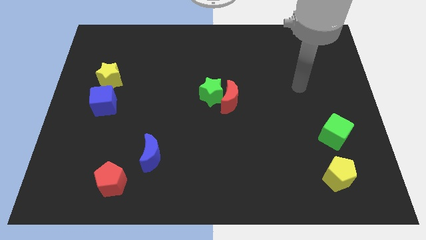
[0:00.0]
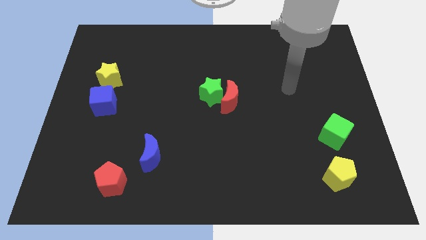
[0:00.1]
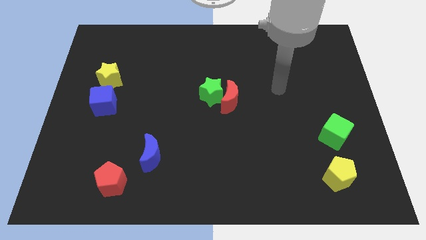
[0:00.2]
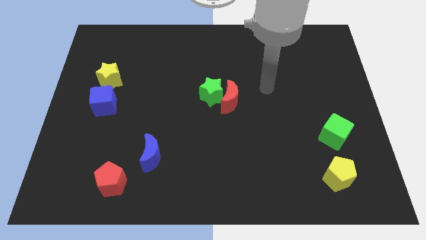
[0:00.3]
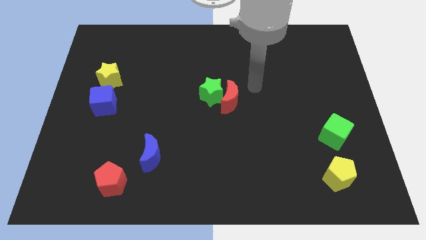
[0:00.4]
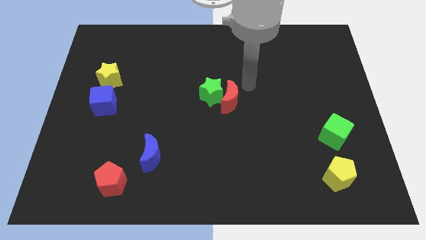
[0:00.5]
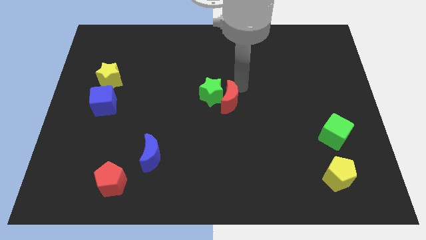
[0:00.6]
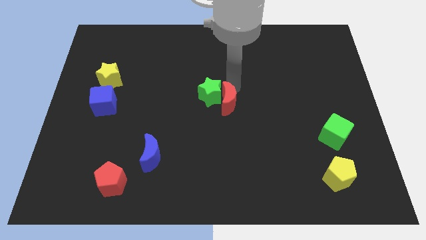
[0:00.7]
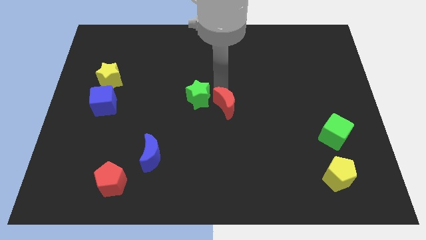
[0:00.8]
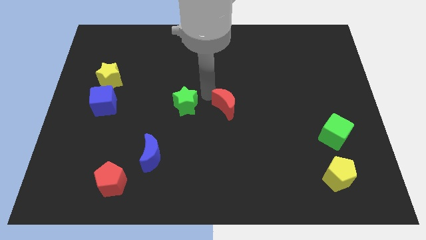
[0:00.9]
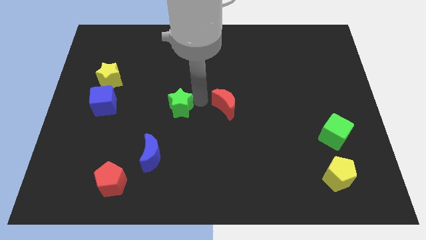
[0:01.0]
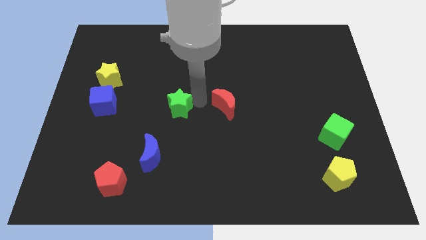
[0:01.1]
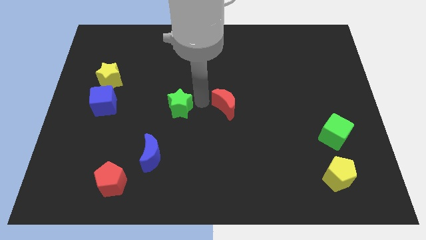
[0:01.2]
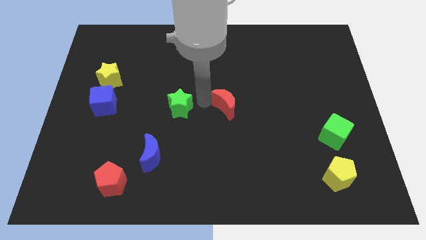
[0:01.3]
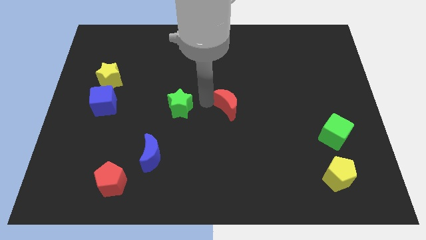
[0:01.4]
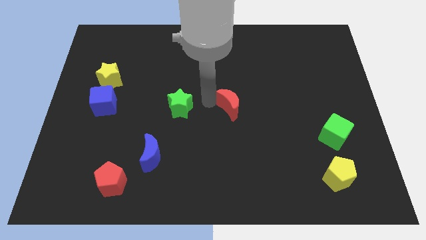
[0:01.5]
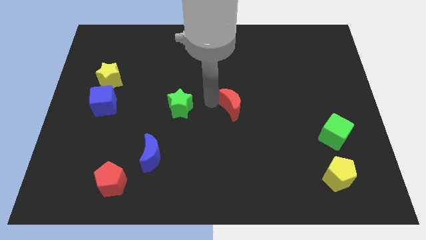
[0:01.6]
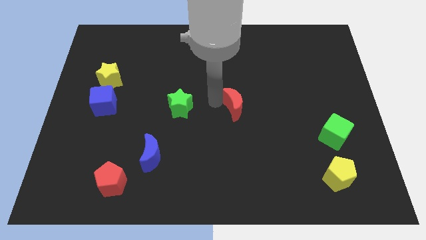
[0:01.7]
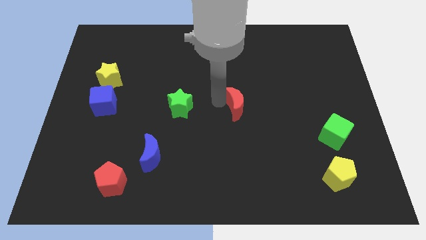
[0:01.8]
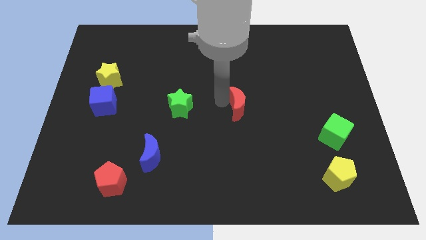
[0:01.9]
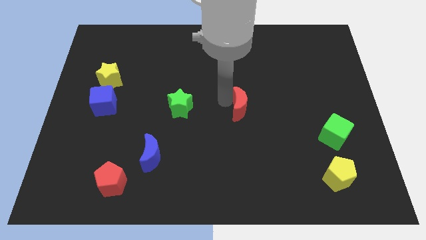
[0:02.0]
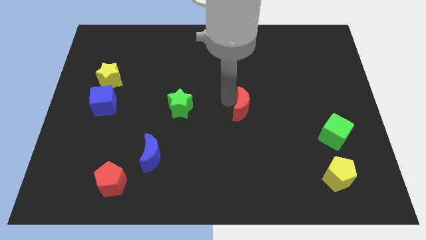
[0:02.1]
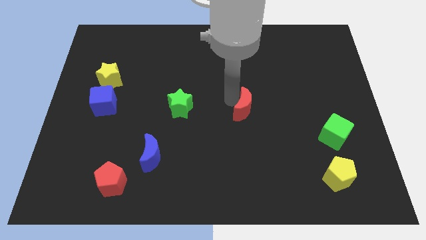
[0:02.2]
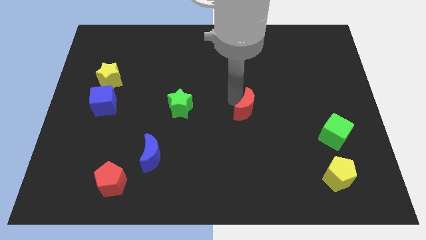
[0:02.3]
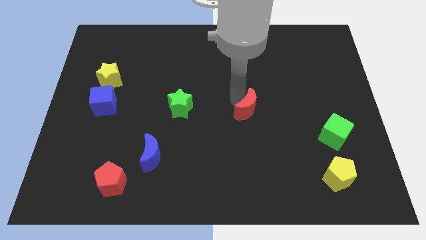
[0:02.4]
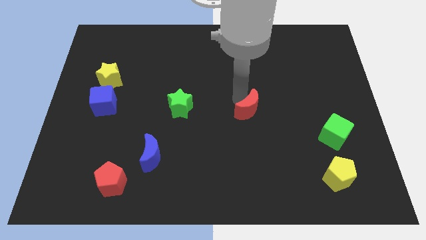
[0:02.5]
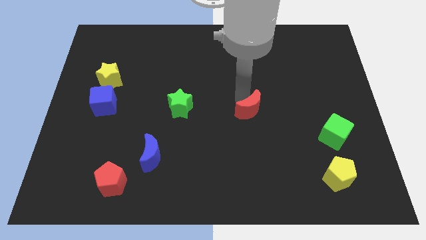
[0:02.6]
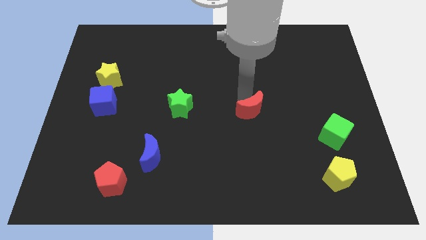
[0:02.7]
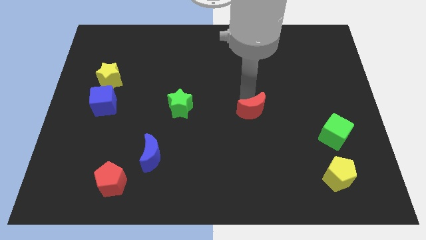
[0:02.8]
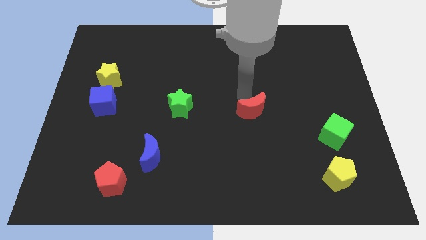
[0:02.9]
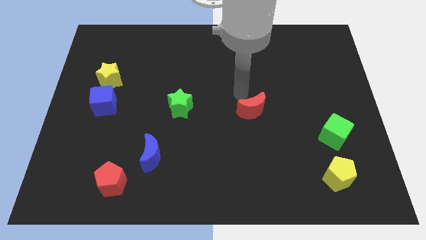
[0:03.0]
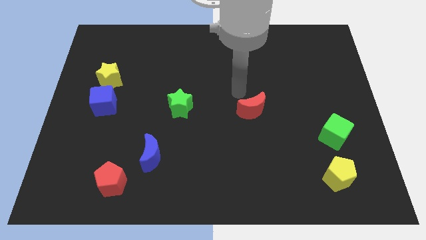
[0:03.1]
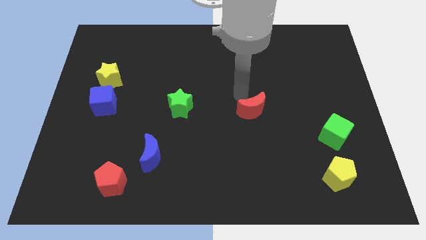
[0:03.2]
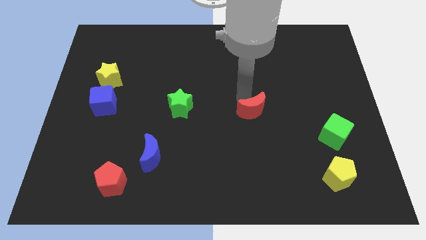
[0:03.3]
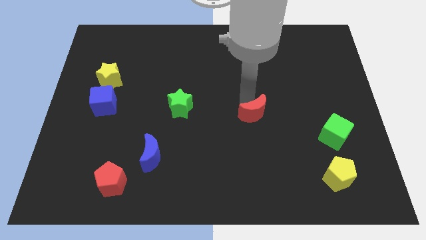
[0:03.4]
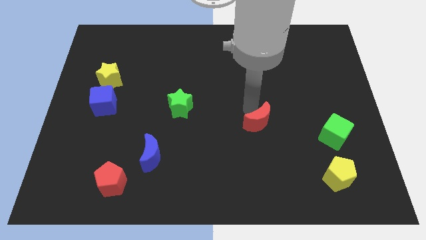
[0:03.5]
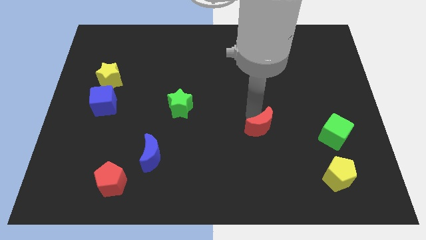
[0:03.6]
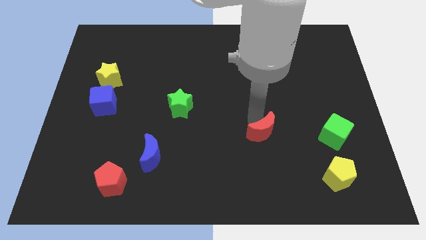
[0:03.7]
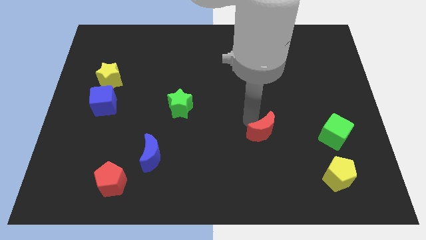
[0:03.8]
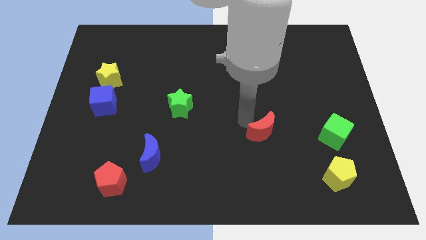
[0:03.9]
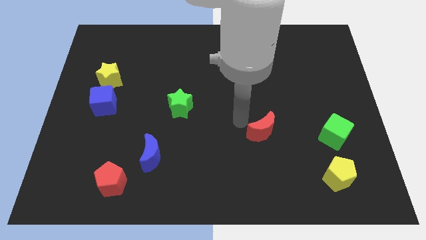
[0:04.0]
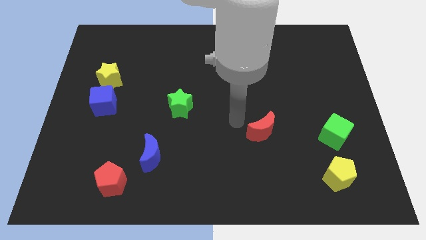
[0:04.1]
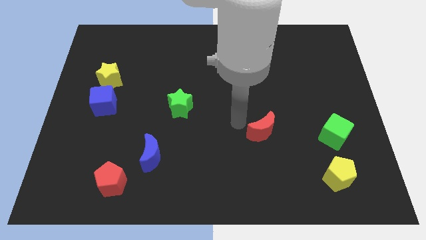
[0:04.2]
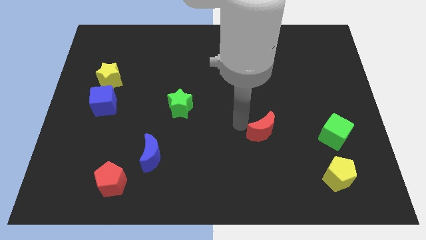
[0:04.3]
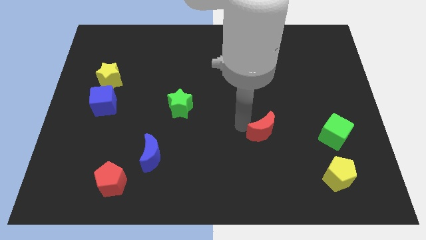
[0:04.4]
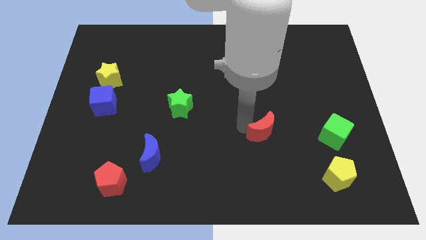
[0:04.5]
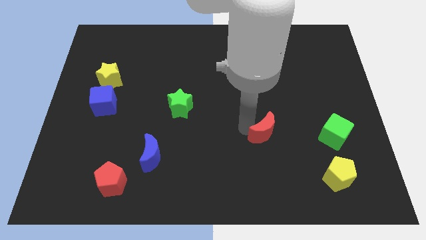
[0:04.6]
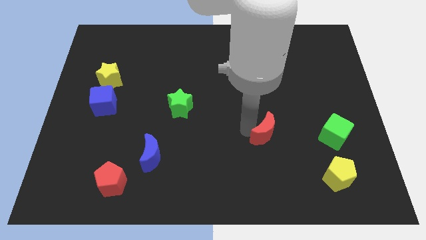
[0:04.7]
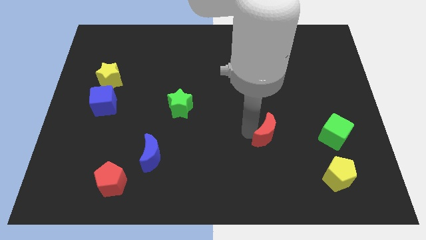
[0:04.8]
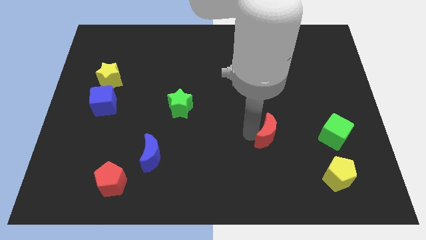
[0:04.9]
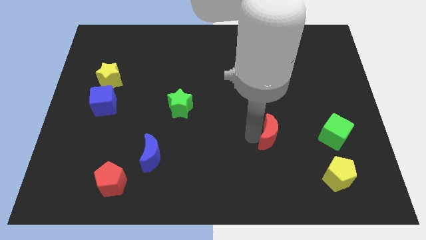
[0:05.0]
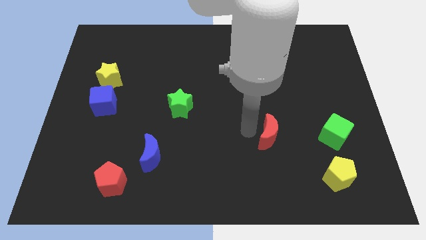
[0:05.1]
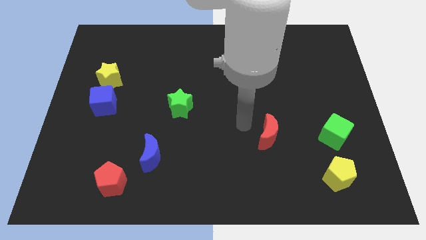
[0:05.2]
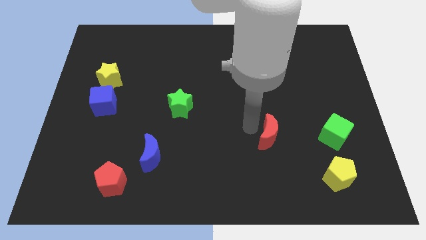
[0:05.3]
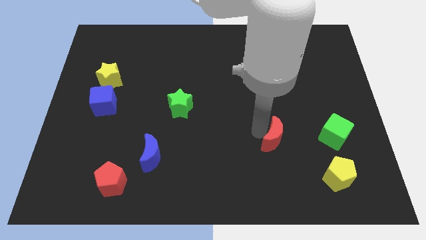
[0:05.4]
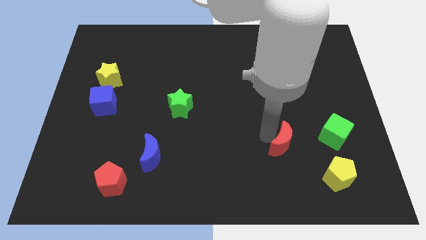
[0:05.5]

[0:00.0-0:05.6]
slide the red moon diagonally up and to the left of the yellow pentagon

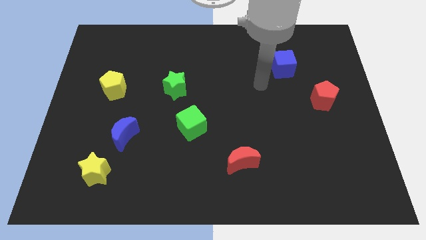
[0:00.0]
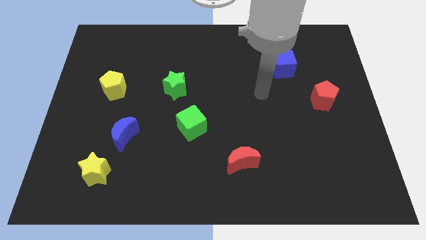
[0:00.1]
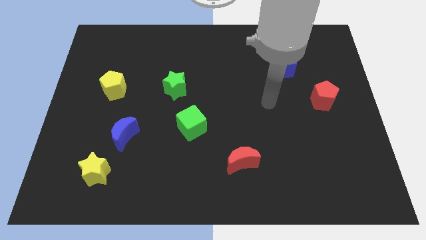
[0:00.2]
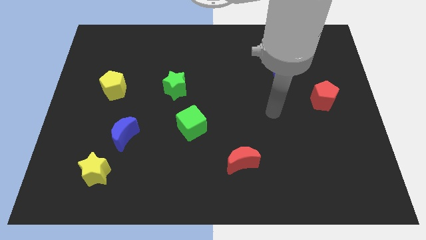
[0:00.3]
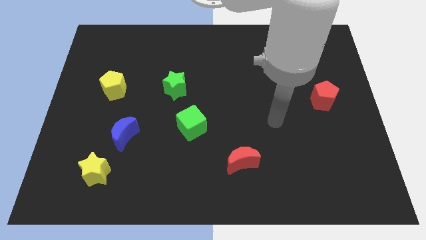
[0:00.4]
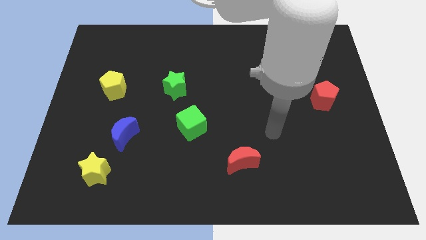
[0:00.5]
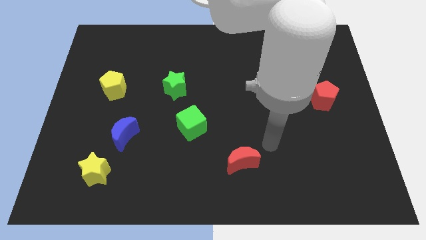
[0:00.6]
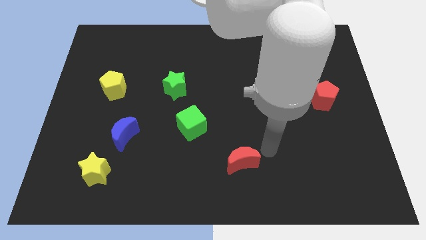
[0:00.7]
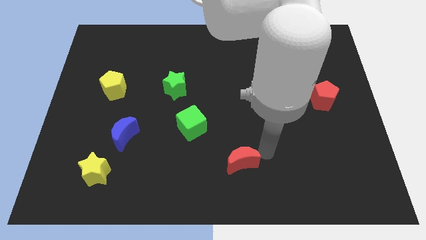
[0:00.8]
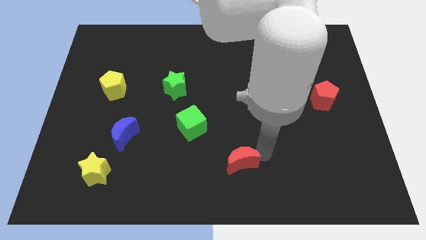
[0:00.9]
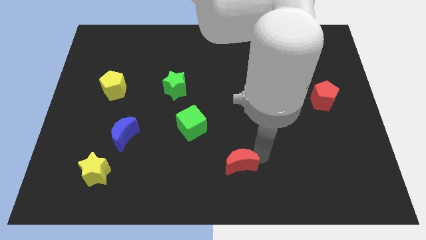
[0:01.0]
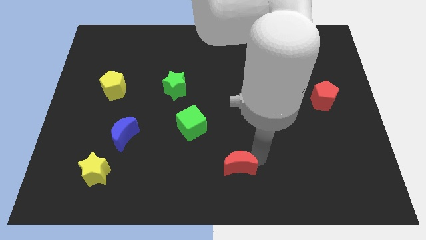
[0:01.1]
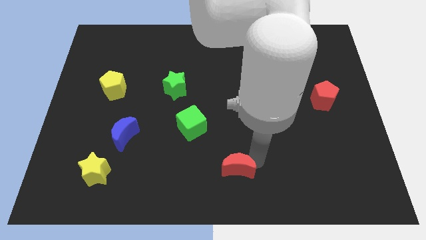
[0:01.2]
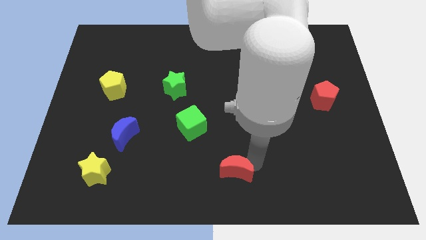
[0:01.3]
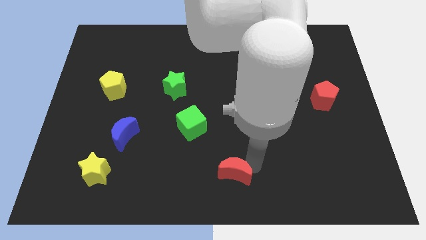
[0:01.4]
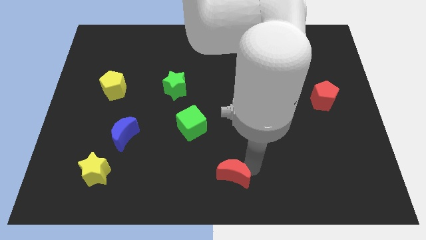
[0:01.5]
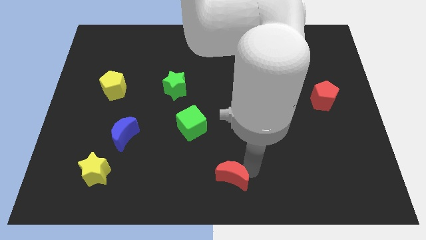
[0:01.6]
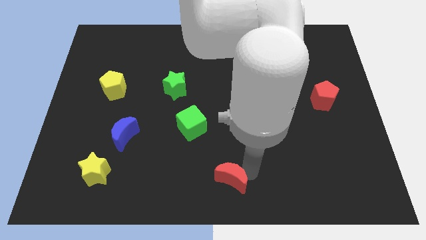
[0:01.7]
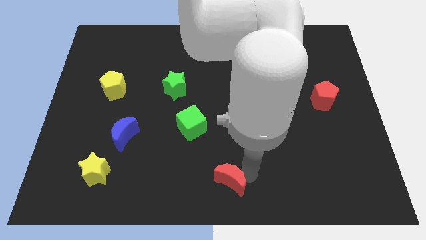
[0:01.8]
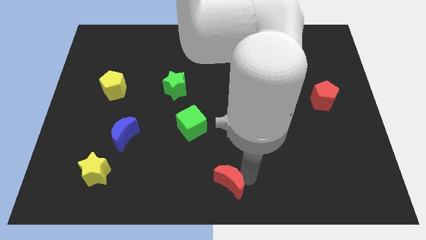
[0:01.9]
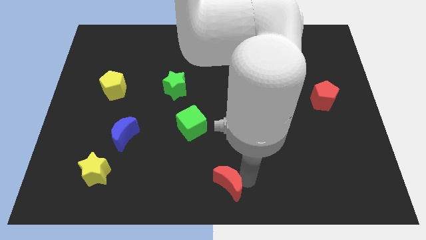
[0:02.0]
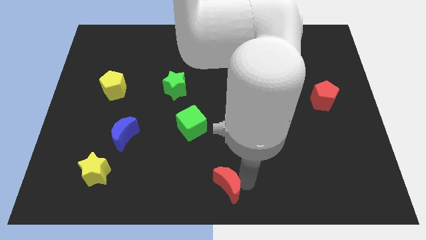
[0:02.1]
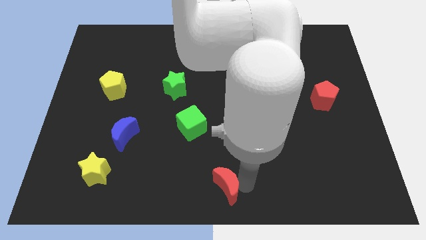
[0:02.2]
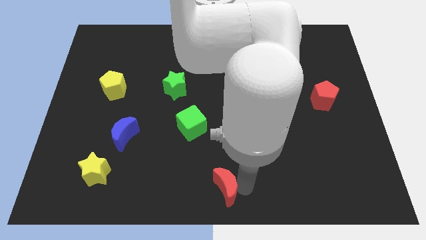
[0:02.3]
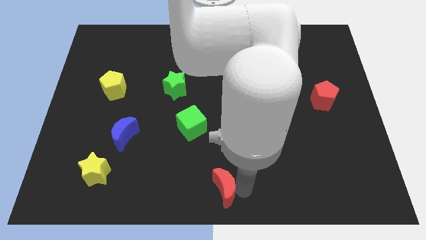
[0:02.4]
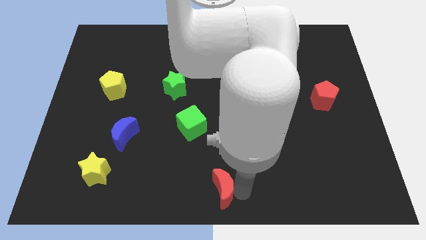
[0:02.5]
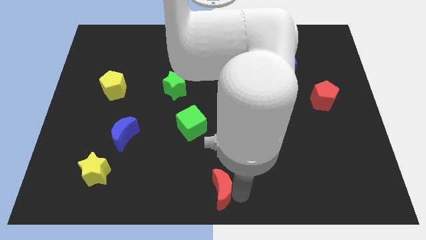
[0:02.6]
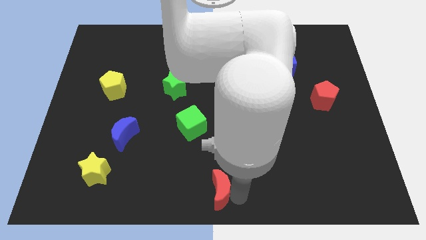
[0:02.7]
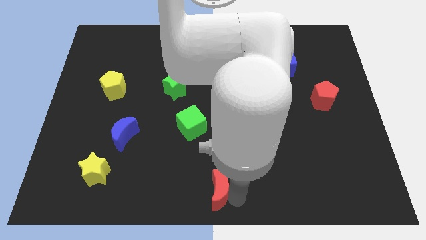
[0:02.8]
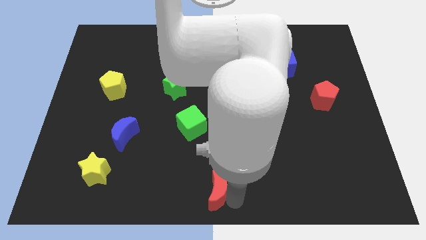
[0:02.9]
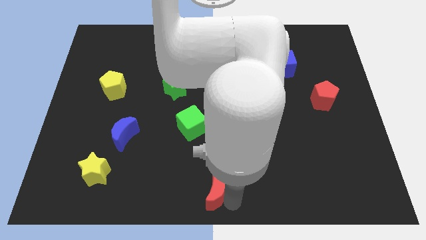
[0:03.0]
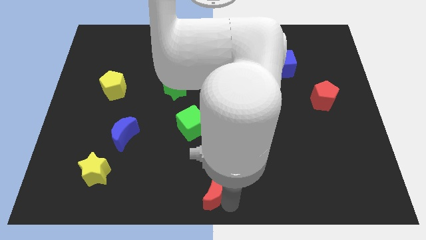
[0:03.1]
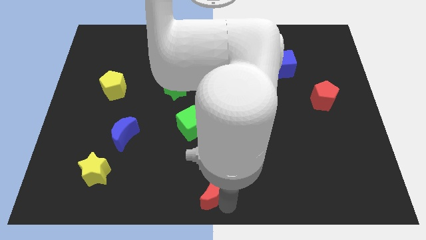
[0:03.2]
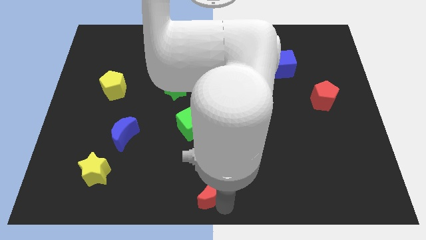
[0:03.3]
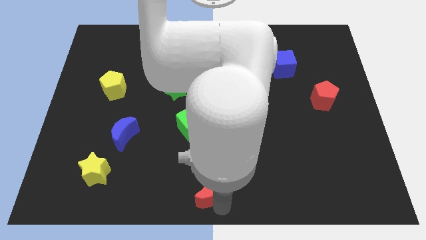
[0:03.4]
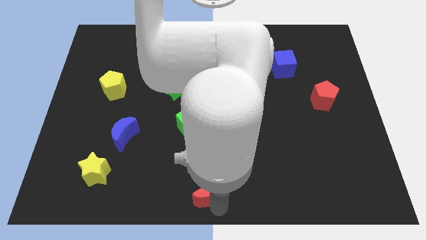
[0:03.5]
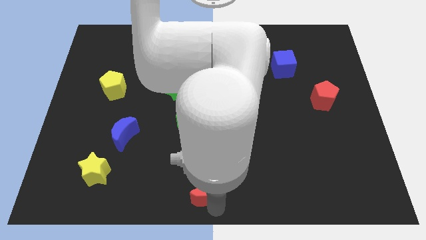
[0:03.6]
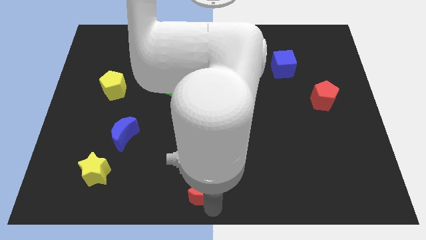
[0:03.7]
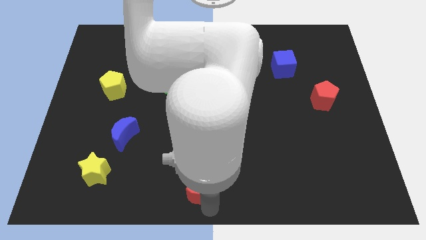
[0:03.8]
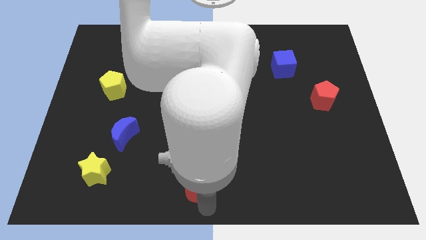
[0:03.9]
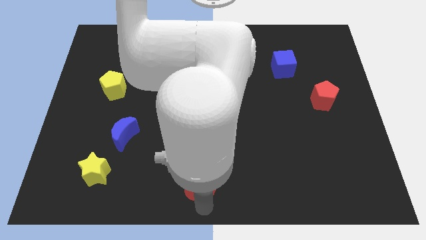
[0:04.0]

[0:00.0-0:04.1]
slide the red moon below the green cube
